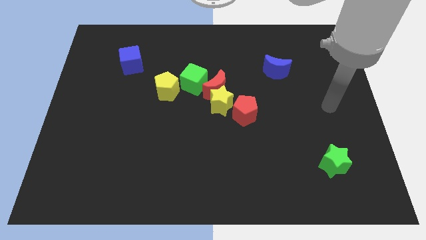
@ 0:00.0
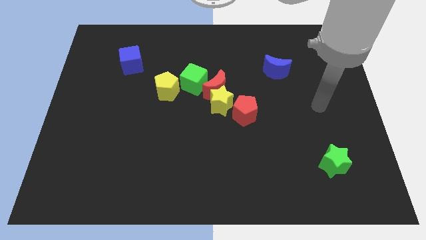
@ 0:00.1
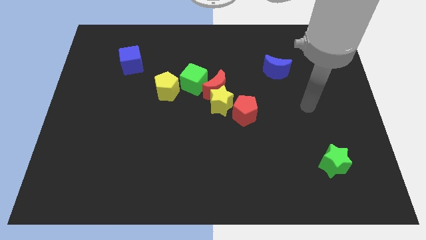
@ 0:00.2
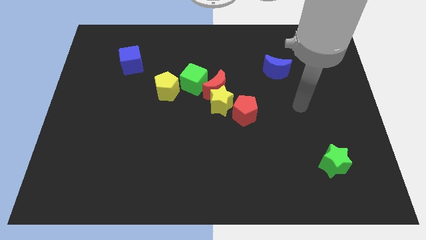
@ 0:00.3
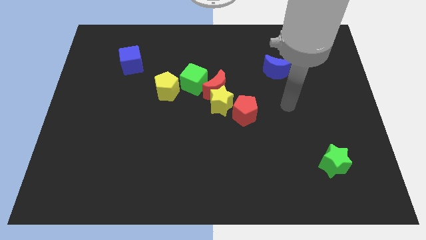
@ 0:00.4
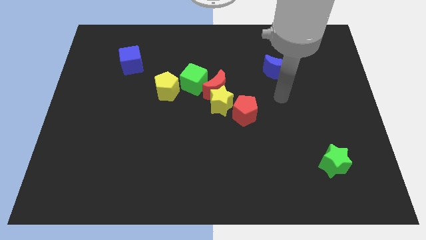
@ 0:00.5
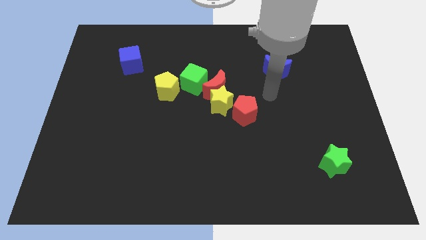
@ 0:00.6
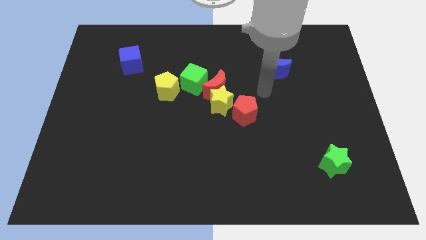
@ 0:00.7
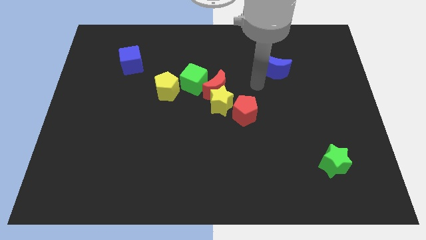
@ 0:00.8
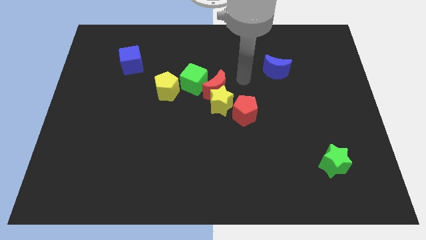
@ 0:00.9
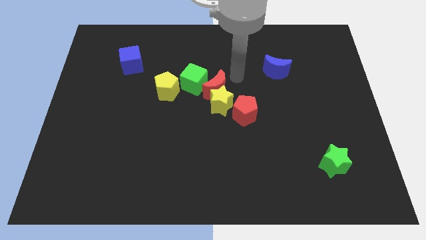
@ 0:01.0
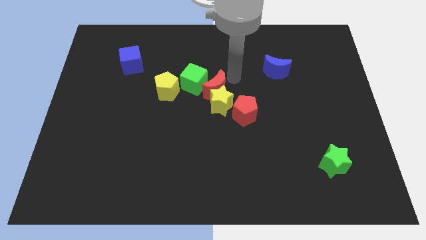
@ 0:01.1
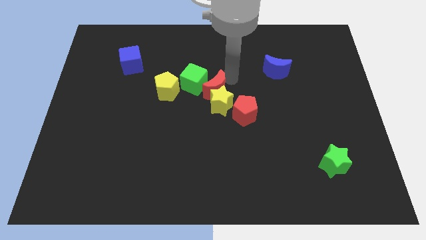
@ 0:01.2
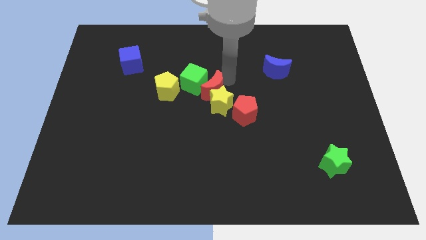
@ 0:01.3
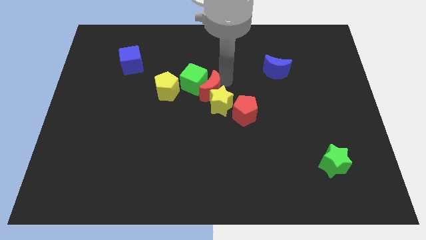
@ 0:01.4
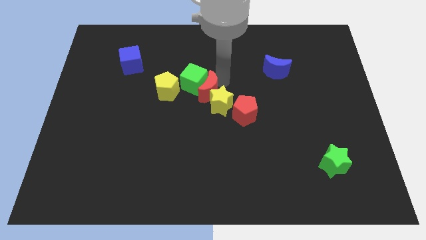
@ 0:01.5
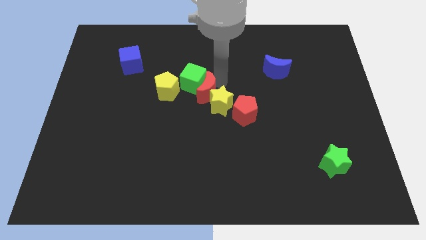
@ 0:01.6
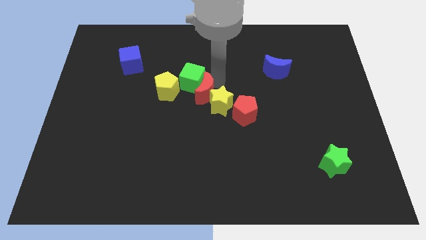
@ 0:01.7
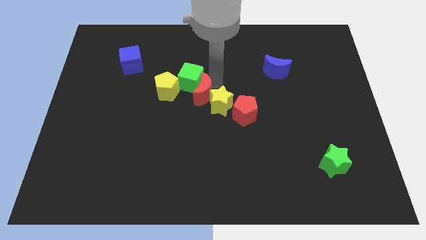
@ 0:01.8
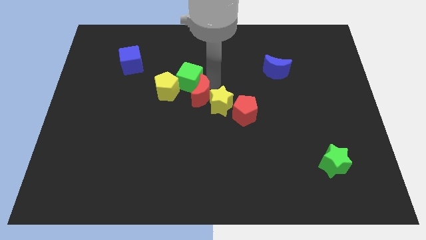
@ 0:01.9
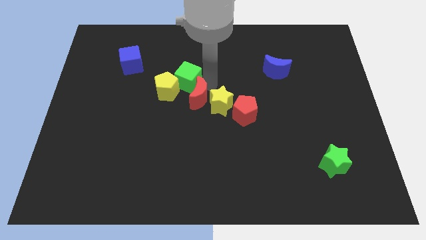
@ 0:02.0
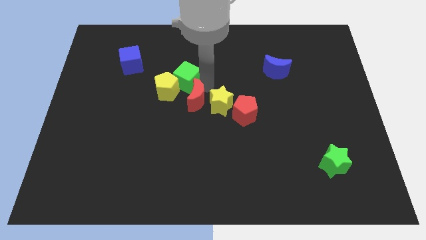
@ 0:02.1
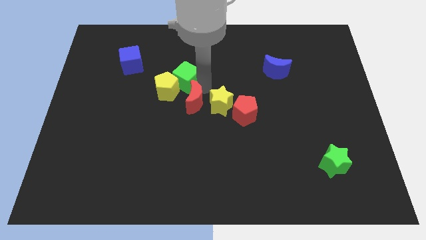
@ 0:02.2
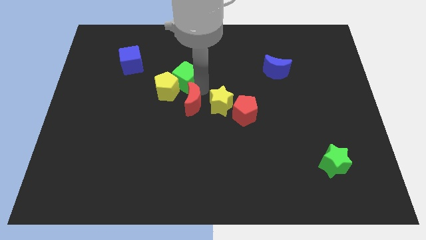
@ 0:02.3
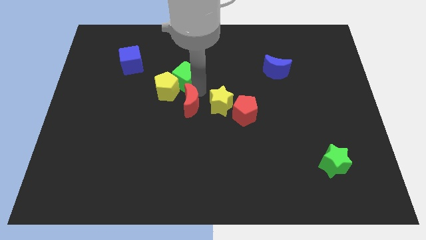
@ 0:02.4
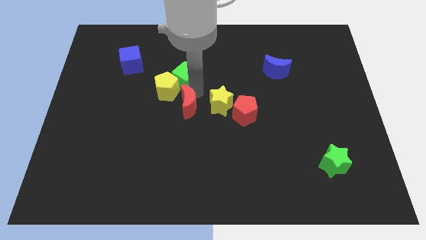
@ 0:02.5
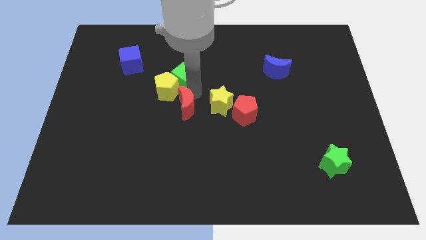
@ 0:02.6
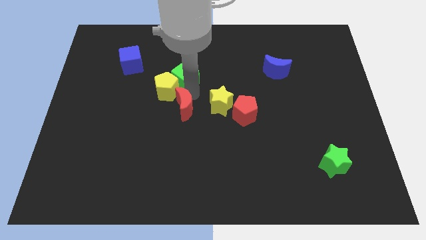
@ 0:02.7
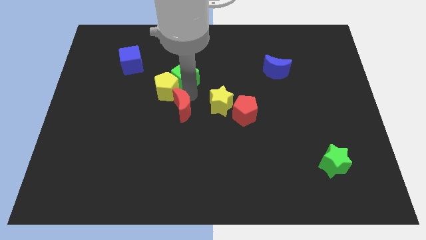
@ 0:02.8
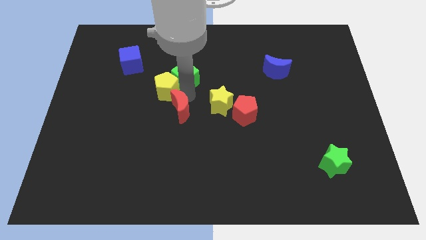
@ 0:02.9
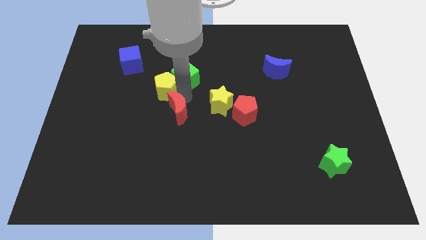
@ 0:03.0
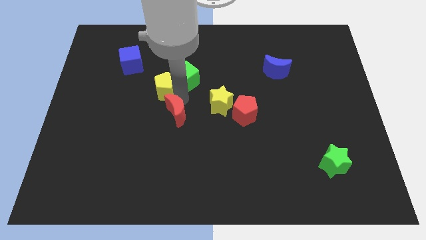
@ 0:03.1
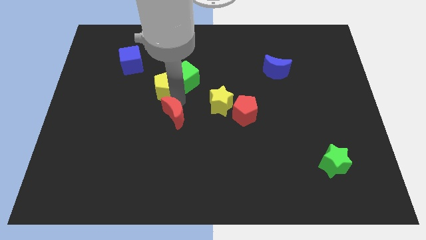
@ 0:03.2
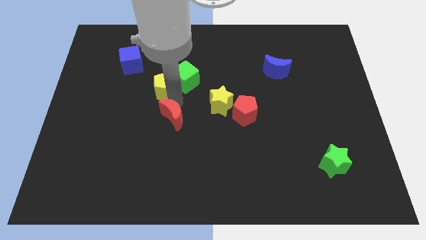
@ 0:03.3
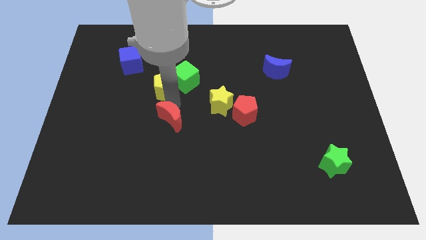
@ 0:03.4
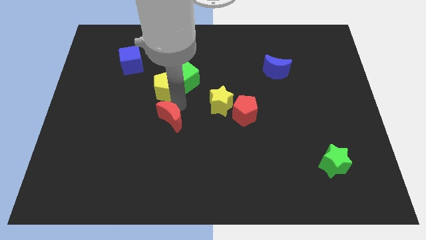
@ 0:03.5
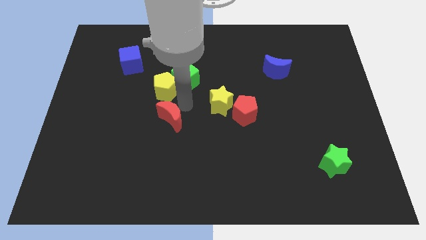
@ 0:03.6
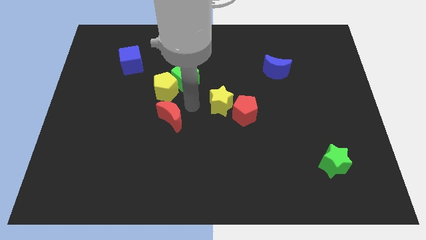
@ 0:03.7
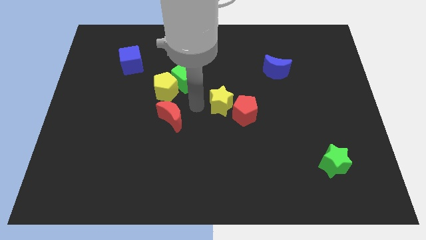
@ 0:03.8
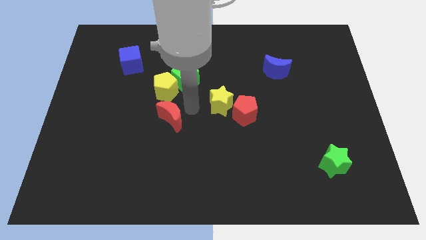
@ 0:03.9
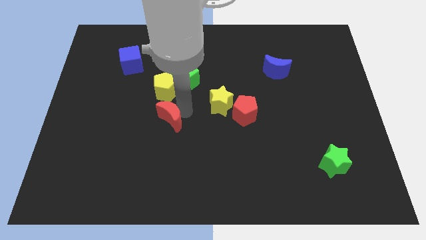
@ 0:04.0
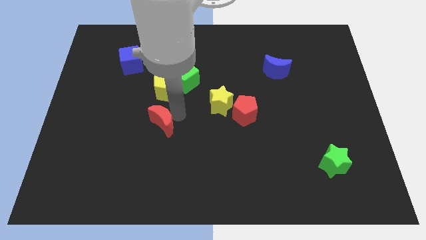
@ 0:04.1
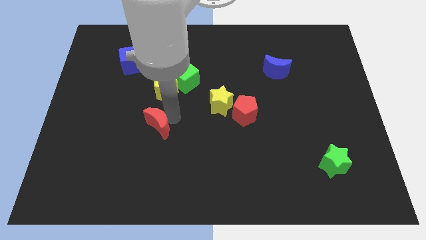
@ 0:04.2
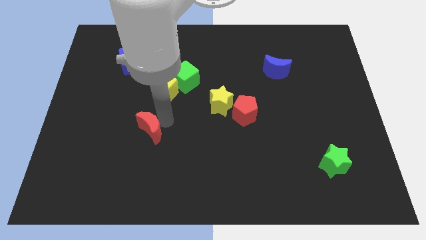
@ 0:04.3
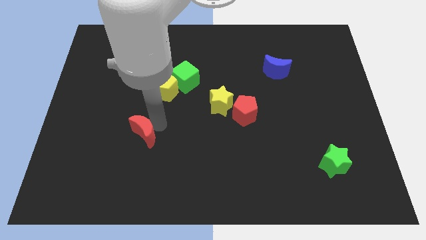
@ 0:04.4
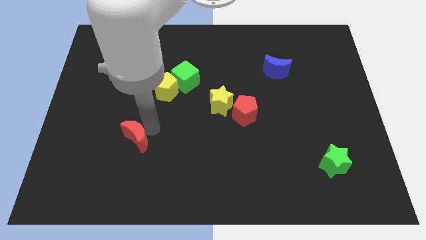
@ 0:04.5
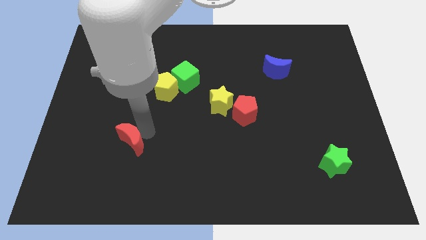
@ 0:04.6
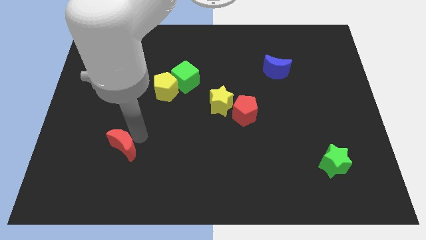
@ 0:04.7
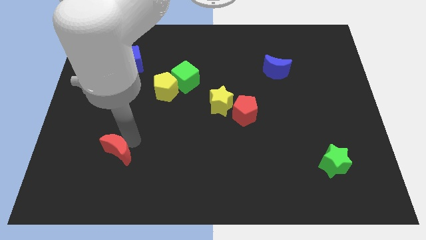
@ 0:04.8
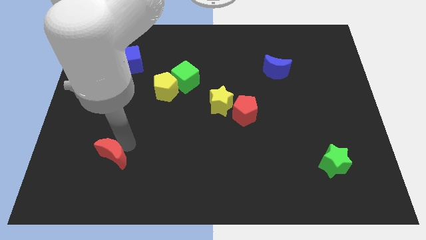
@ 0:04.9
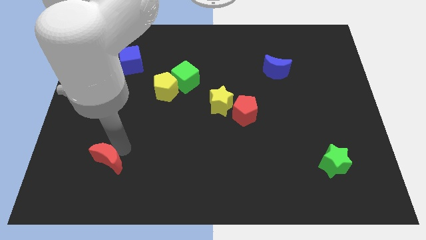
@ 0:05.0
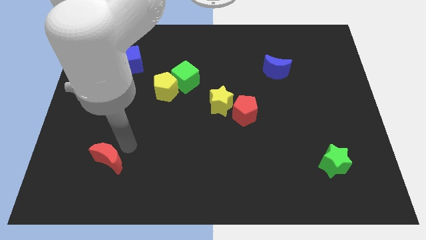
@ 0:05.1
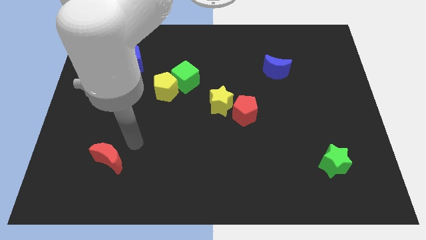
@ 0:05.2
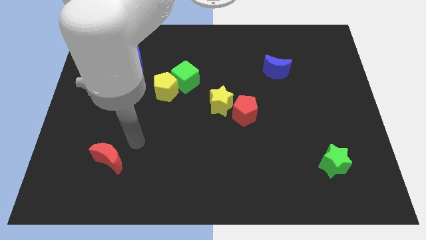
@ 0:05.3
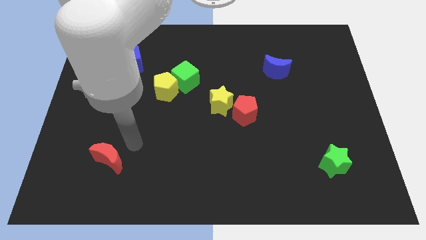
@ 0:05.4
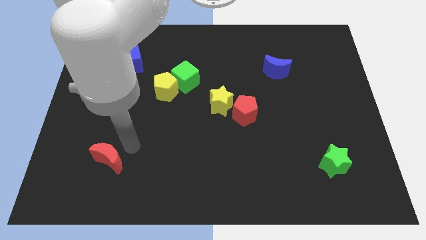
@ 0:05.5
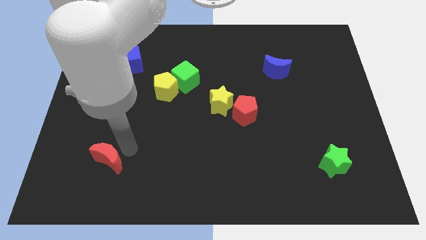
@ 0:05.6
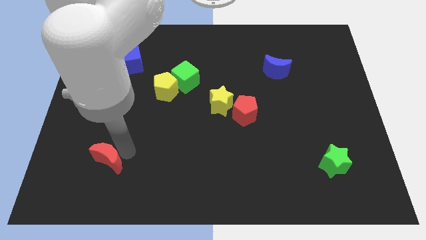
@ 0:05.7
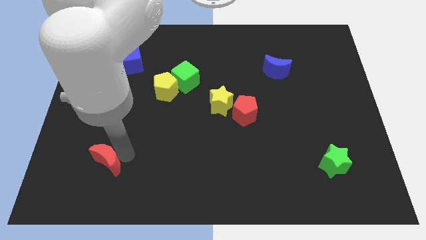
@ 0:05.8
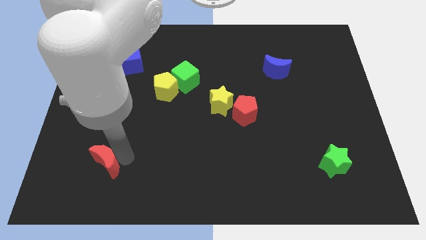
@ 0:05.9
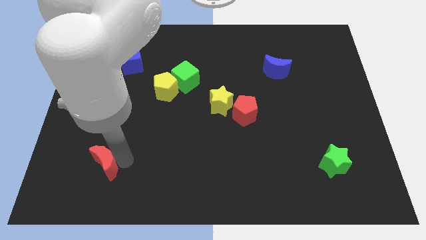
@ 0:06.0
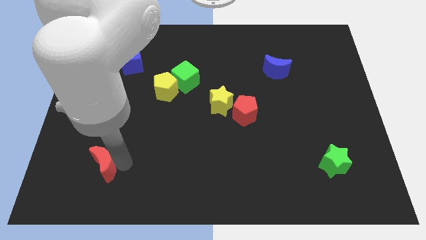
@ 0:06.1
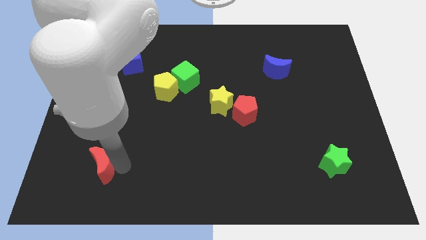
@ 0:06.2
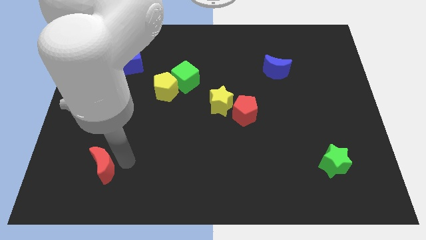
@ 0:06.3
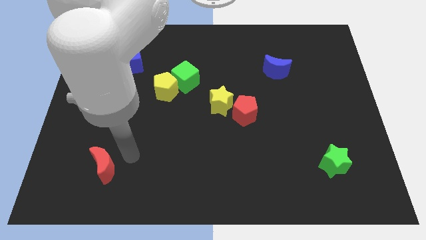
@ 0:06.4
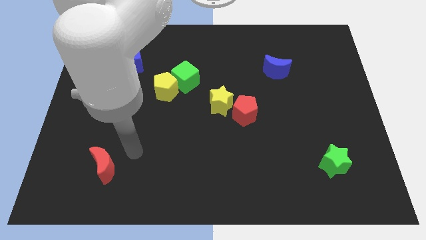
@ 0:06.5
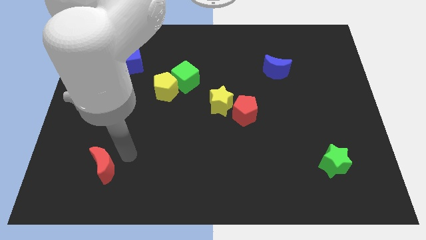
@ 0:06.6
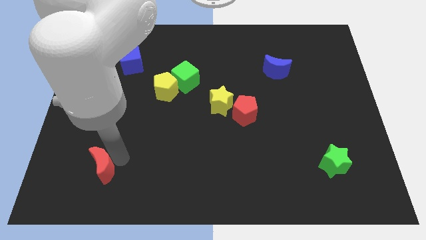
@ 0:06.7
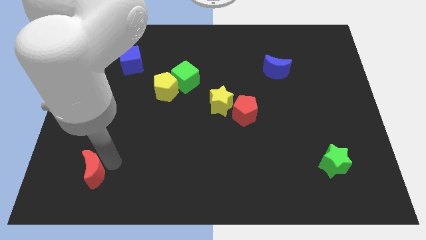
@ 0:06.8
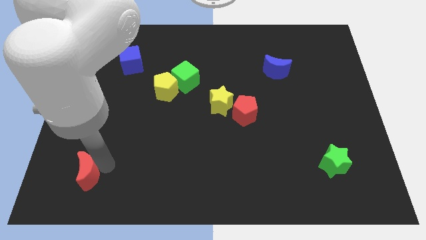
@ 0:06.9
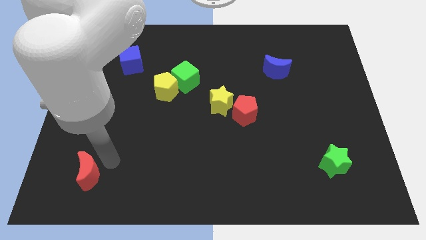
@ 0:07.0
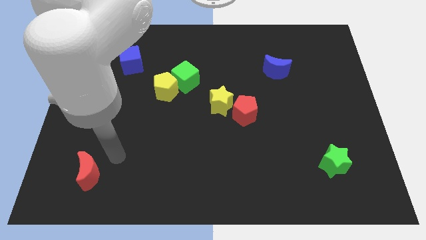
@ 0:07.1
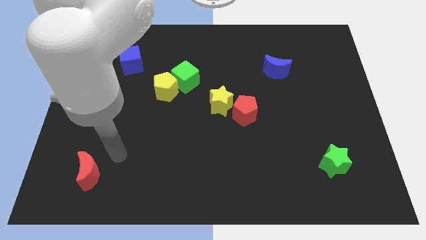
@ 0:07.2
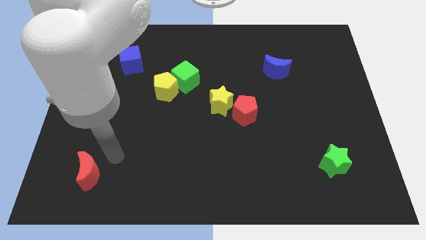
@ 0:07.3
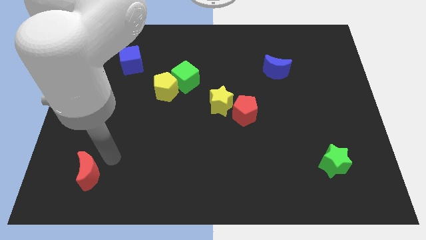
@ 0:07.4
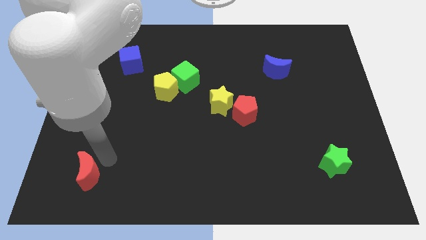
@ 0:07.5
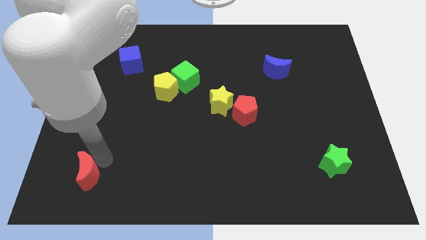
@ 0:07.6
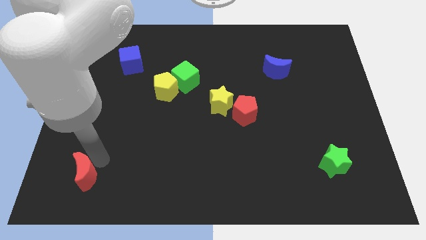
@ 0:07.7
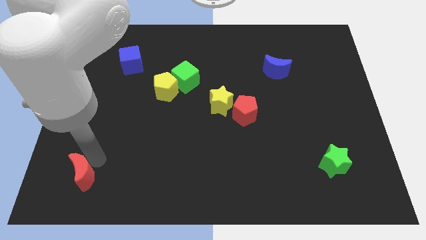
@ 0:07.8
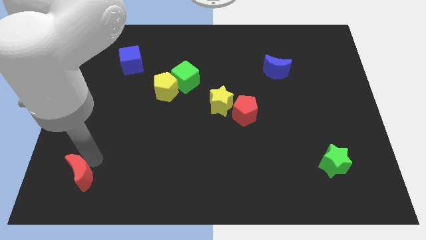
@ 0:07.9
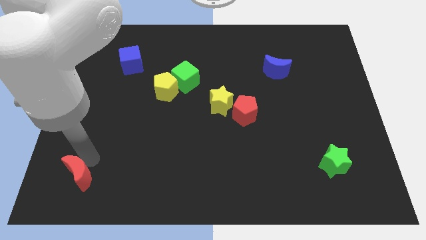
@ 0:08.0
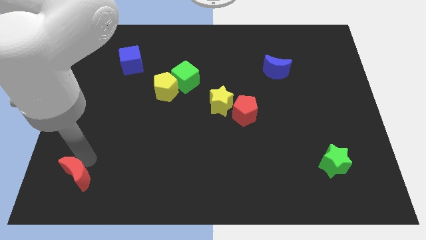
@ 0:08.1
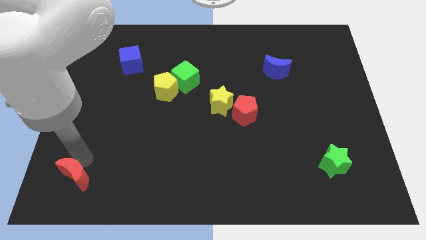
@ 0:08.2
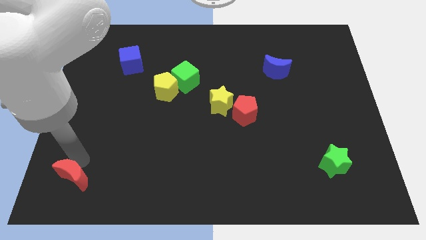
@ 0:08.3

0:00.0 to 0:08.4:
put the red moon to the bottom left corner
